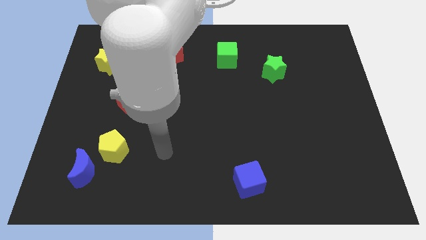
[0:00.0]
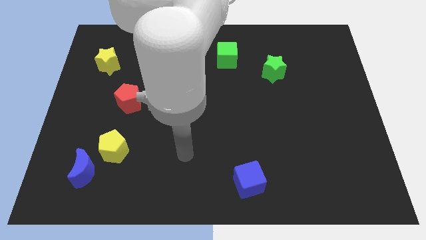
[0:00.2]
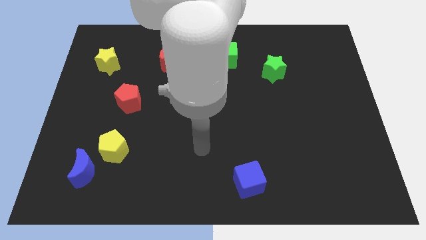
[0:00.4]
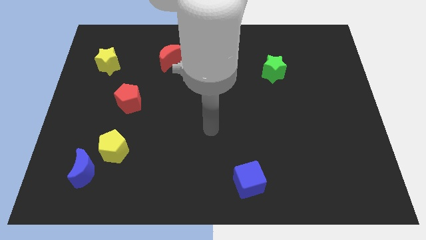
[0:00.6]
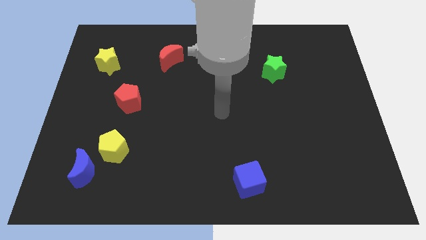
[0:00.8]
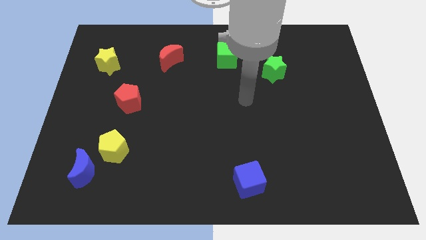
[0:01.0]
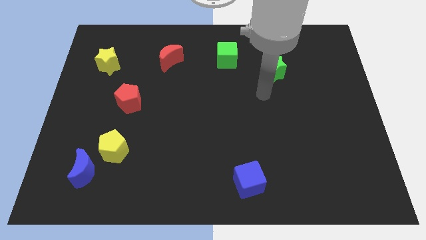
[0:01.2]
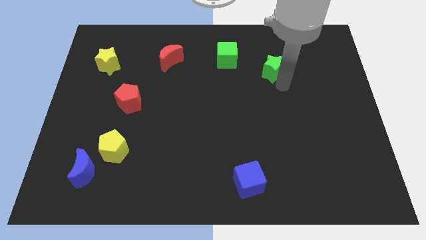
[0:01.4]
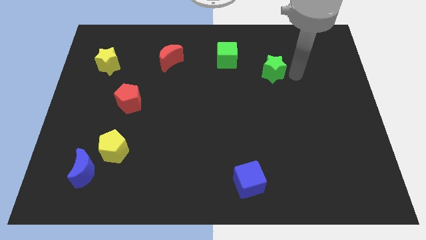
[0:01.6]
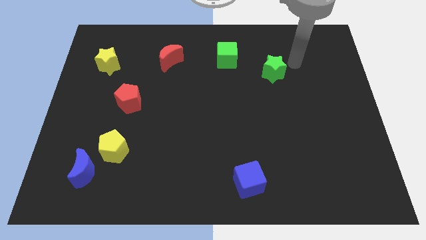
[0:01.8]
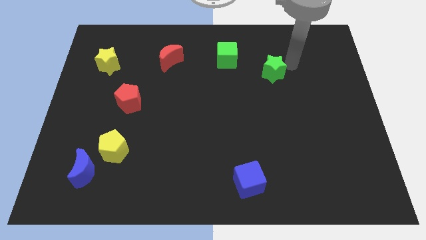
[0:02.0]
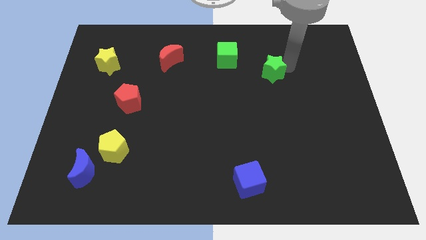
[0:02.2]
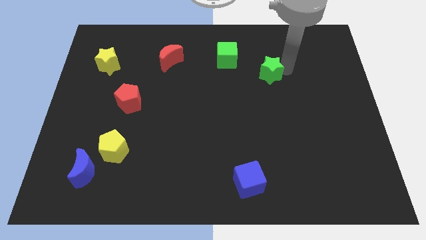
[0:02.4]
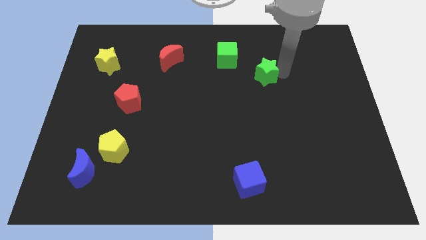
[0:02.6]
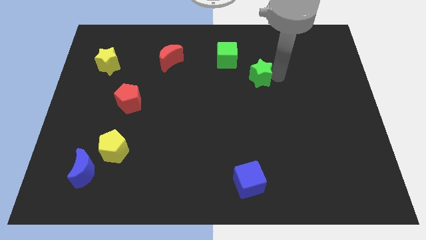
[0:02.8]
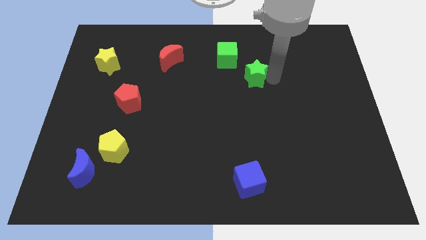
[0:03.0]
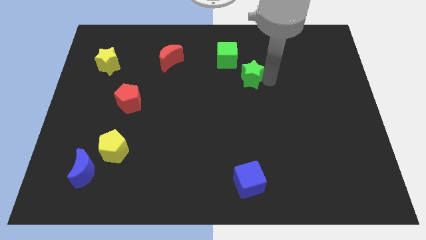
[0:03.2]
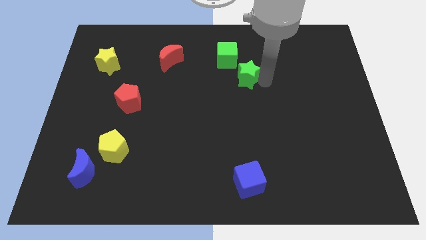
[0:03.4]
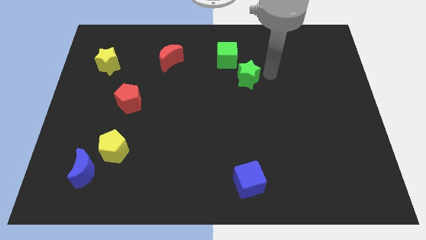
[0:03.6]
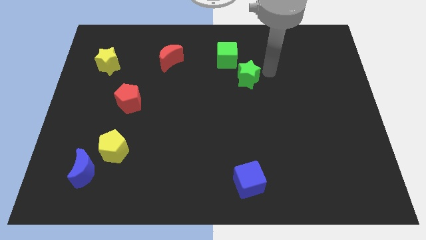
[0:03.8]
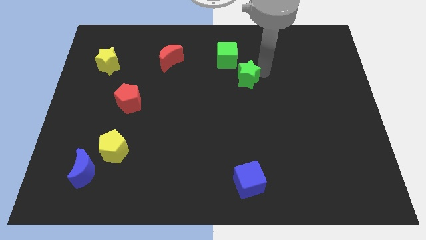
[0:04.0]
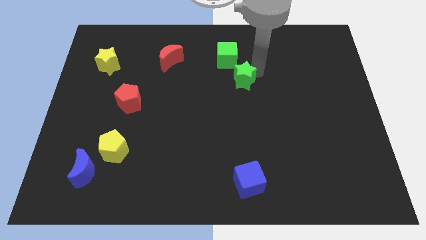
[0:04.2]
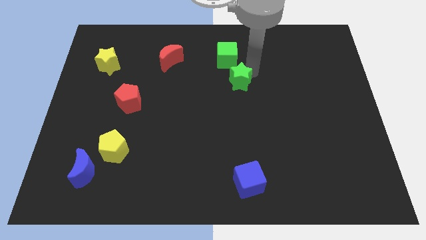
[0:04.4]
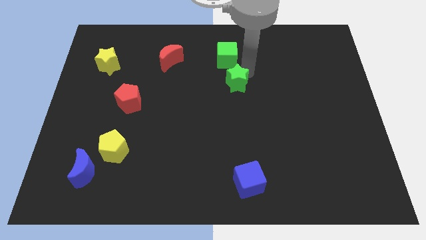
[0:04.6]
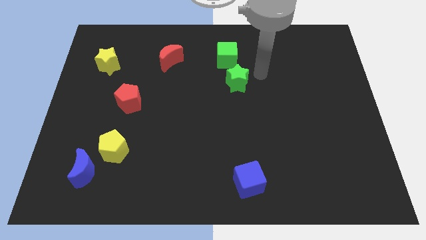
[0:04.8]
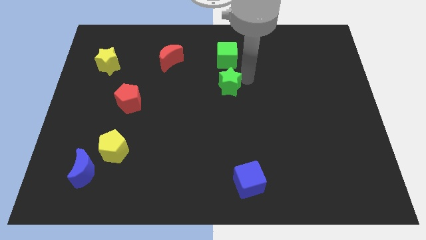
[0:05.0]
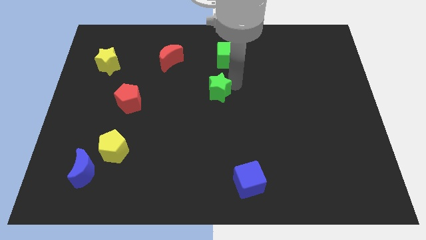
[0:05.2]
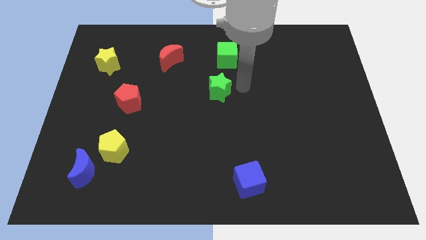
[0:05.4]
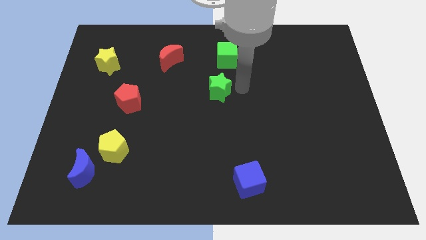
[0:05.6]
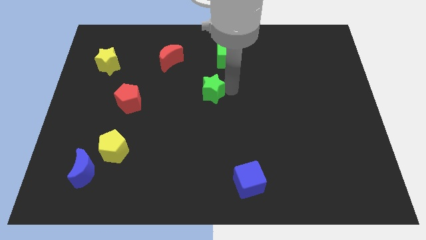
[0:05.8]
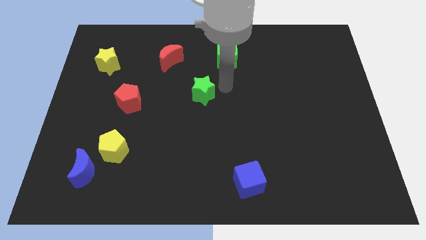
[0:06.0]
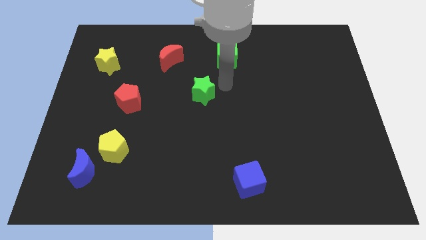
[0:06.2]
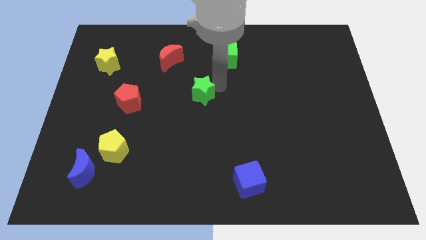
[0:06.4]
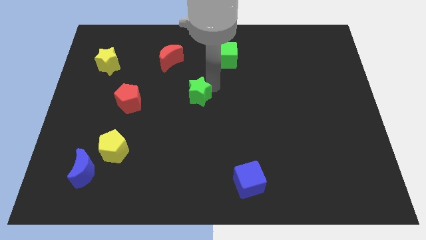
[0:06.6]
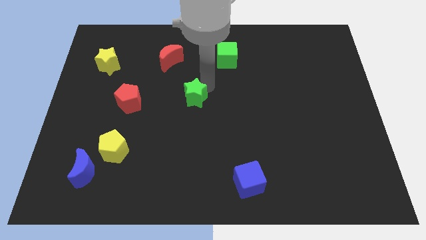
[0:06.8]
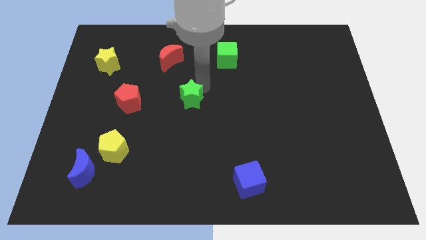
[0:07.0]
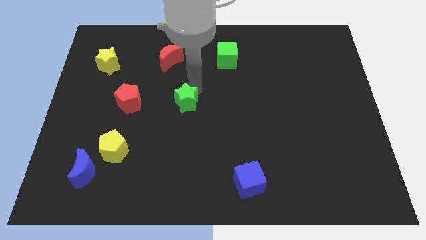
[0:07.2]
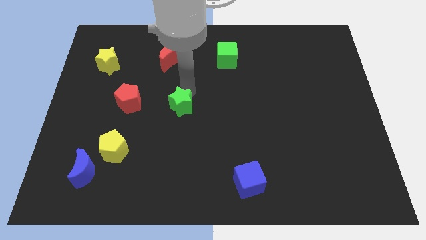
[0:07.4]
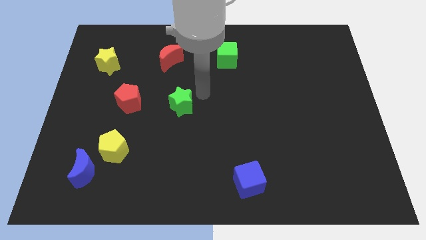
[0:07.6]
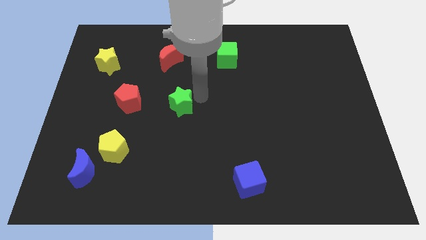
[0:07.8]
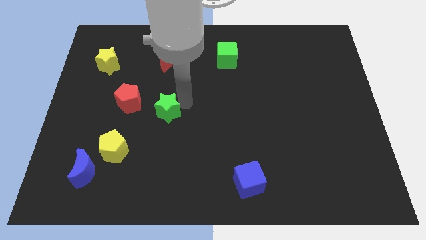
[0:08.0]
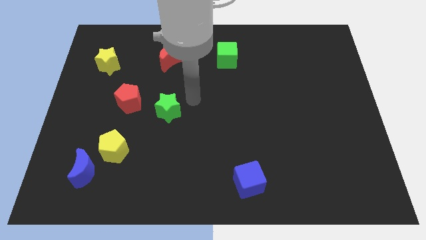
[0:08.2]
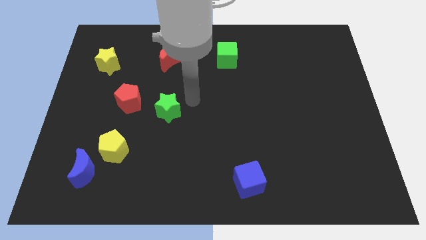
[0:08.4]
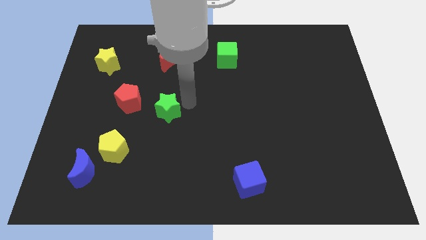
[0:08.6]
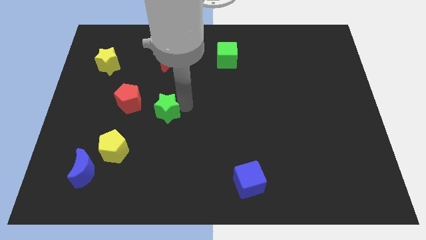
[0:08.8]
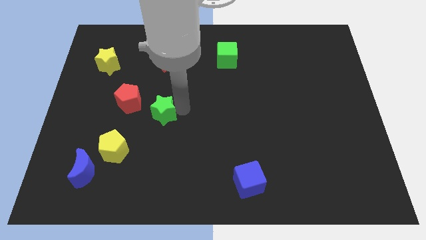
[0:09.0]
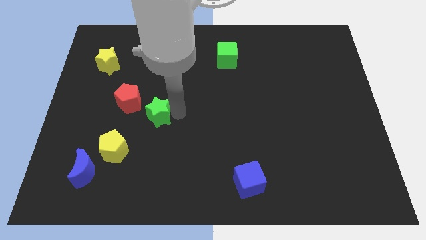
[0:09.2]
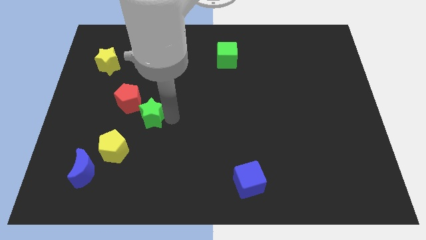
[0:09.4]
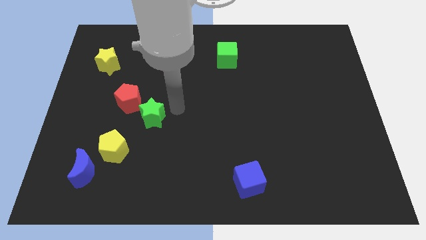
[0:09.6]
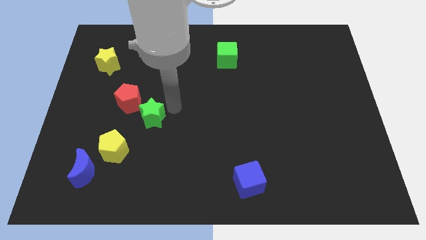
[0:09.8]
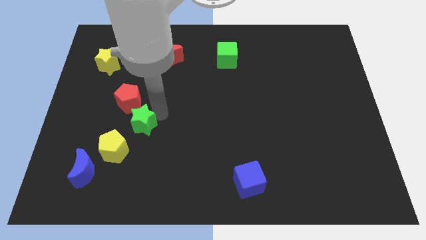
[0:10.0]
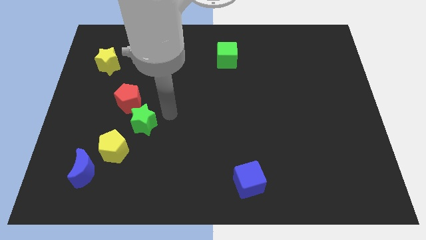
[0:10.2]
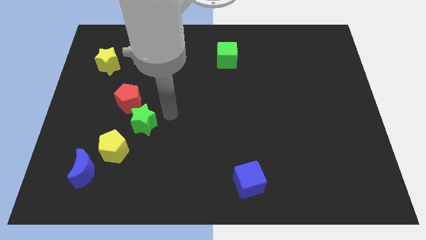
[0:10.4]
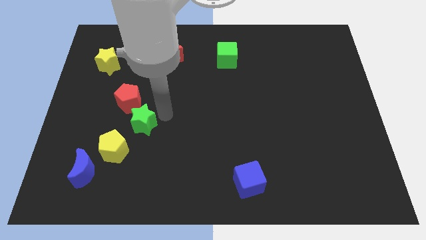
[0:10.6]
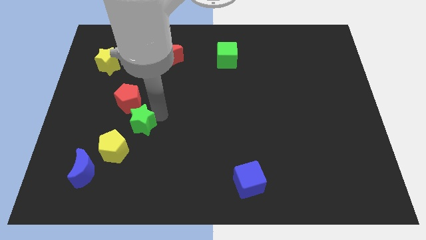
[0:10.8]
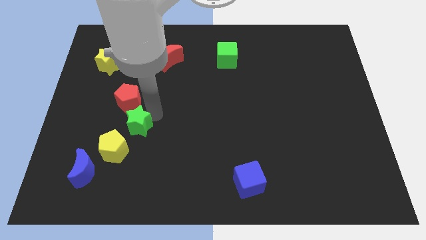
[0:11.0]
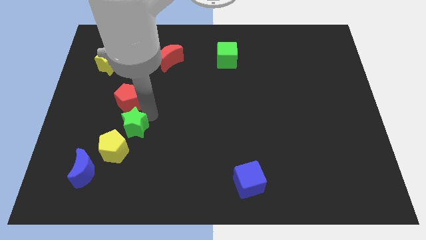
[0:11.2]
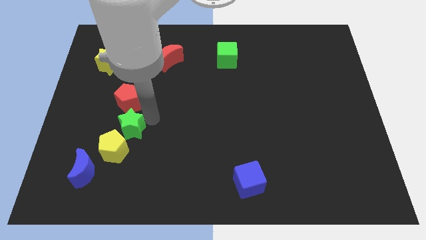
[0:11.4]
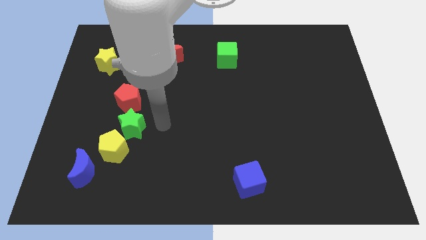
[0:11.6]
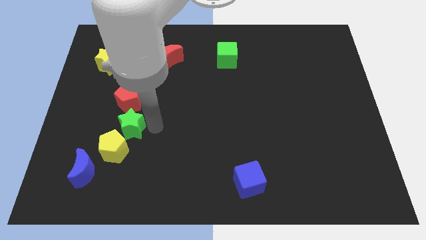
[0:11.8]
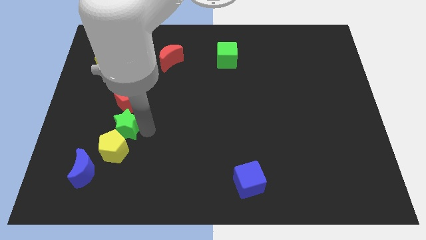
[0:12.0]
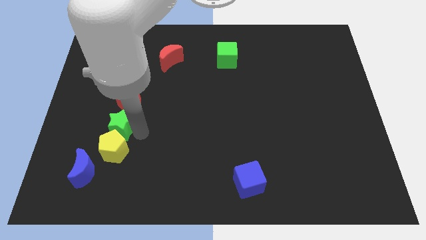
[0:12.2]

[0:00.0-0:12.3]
push the green star to the top left of the yellow pentagon
